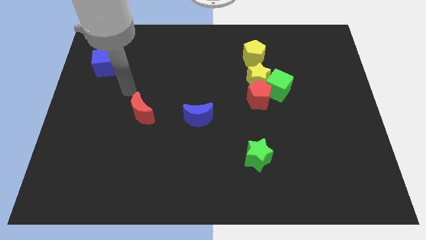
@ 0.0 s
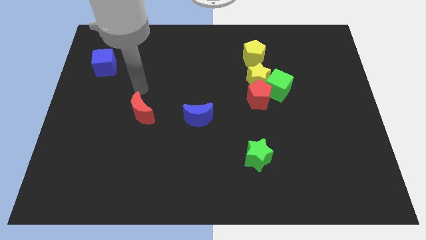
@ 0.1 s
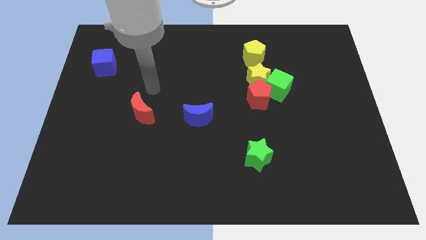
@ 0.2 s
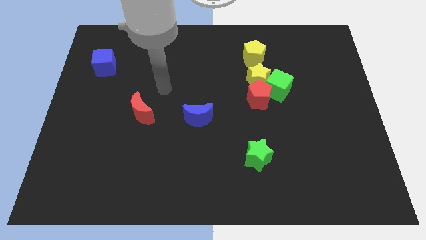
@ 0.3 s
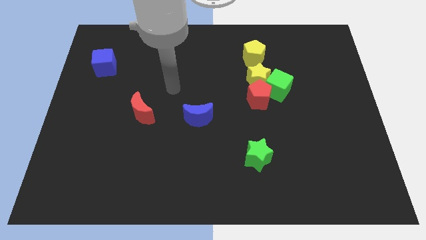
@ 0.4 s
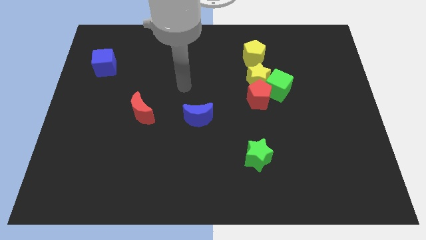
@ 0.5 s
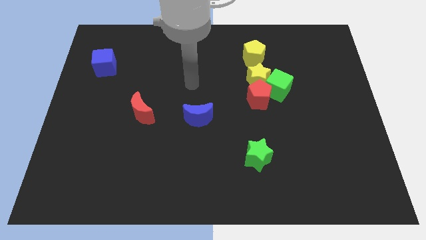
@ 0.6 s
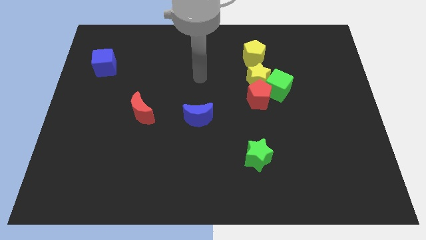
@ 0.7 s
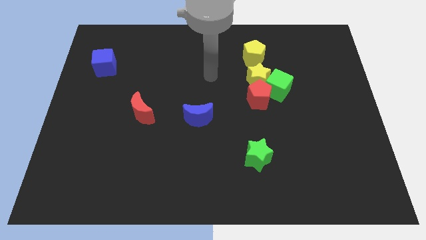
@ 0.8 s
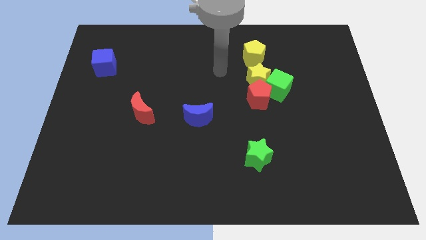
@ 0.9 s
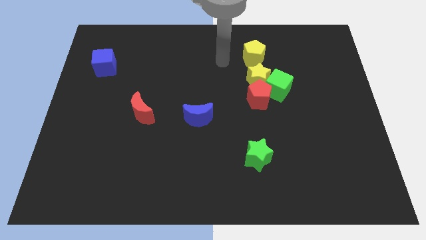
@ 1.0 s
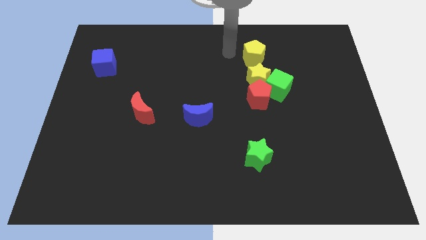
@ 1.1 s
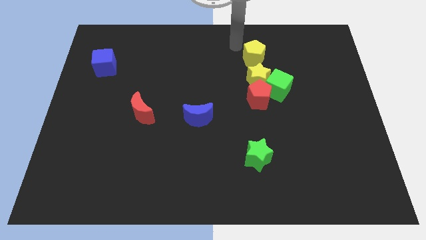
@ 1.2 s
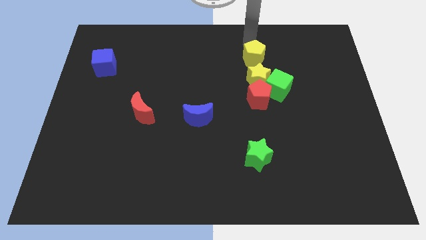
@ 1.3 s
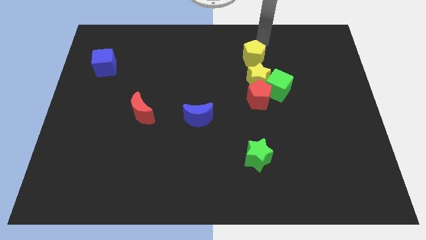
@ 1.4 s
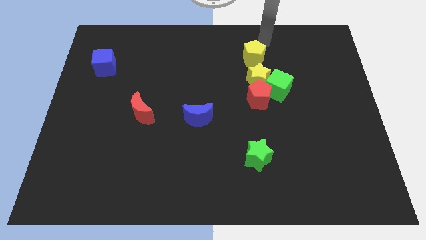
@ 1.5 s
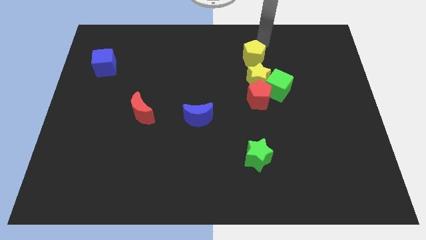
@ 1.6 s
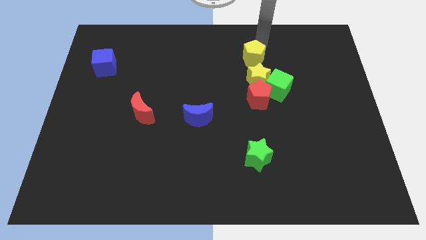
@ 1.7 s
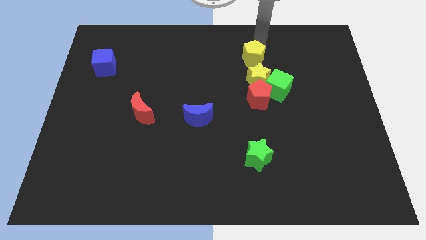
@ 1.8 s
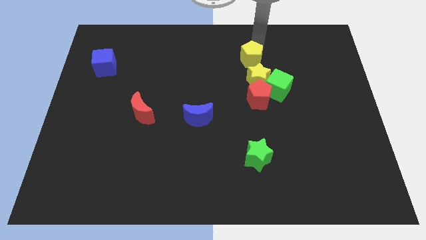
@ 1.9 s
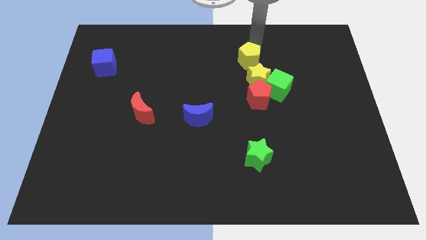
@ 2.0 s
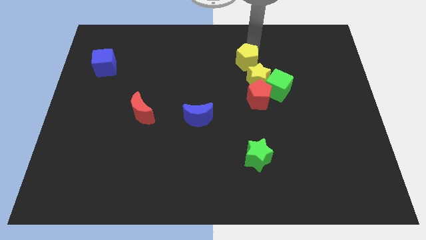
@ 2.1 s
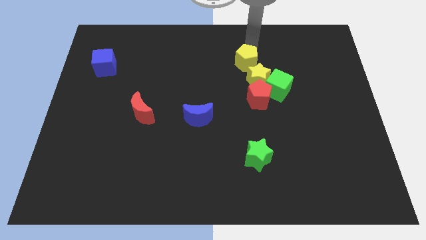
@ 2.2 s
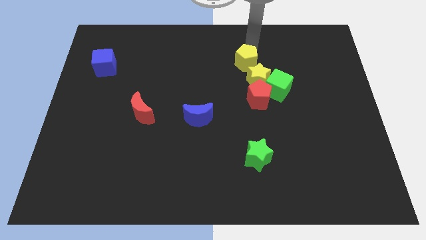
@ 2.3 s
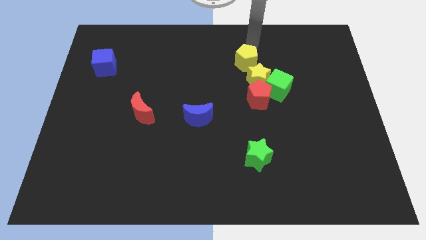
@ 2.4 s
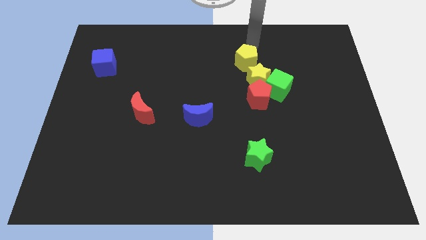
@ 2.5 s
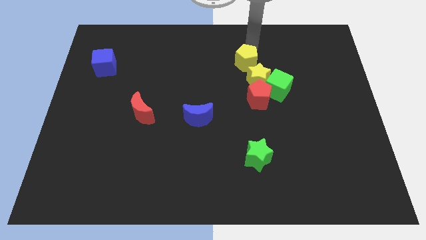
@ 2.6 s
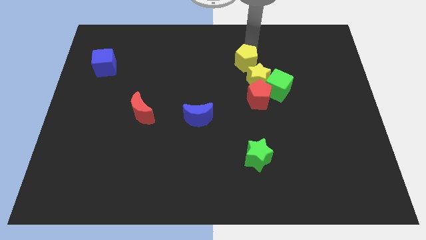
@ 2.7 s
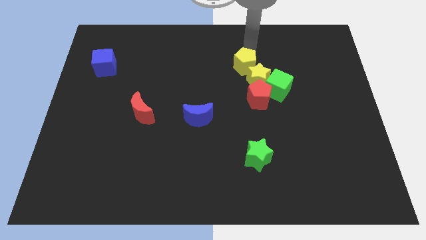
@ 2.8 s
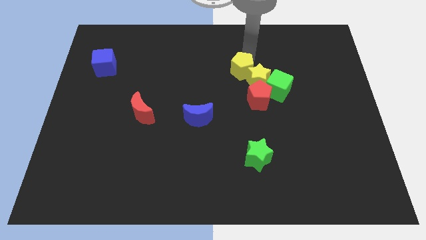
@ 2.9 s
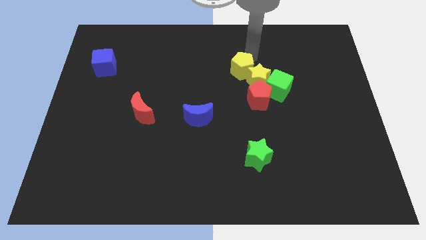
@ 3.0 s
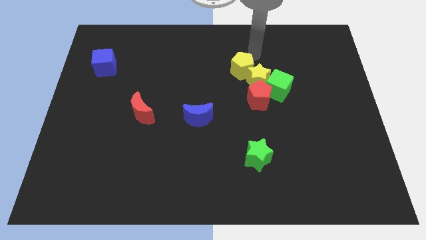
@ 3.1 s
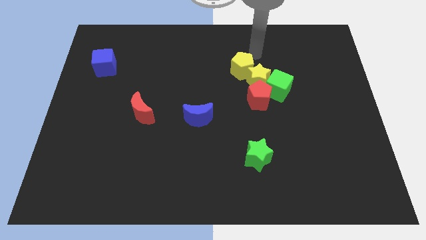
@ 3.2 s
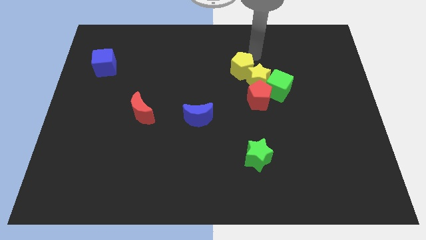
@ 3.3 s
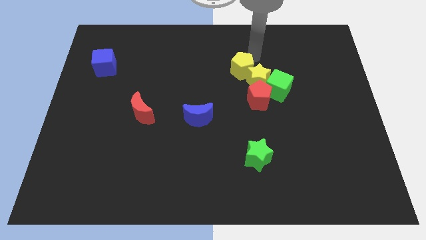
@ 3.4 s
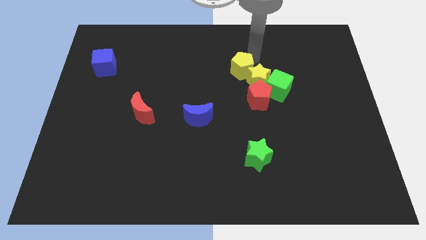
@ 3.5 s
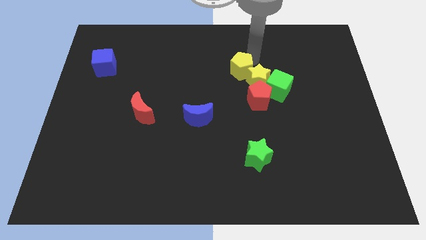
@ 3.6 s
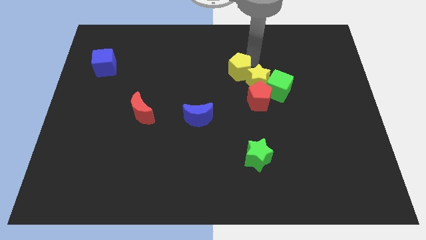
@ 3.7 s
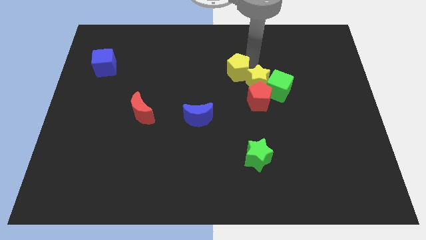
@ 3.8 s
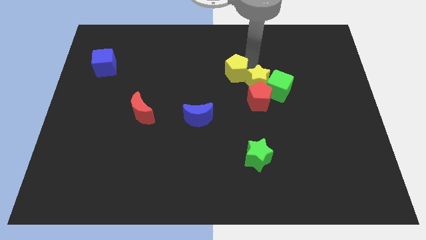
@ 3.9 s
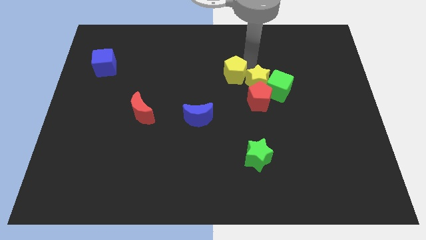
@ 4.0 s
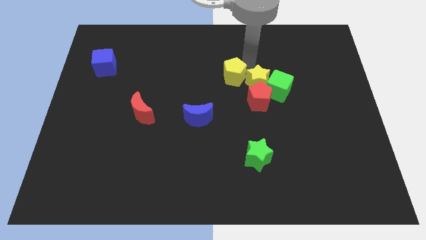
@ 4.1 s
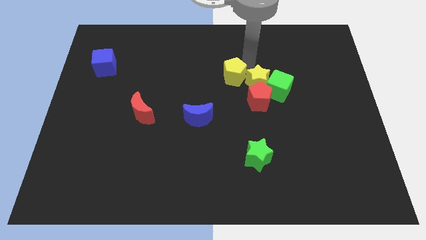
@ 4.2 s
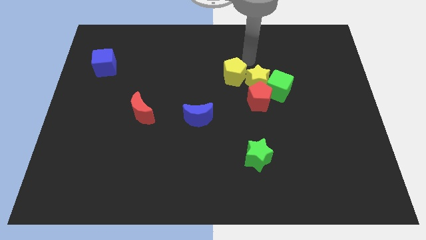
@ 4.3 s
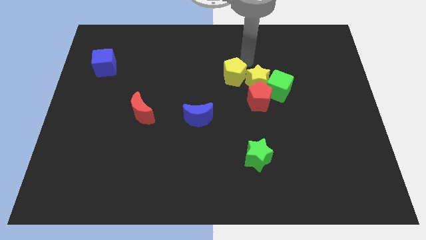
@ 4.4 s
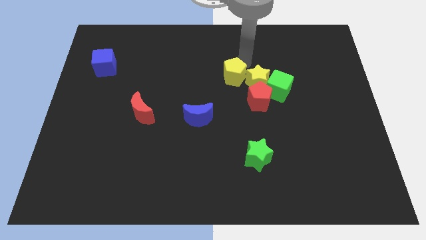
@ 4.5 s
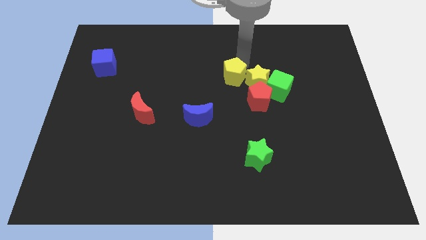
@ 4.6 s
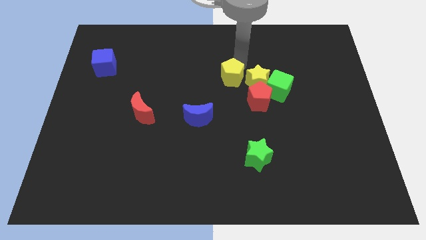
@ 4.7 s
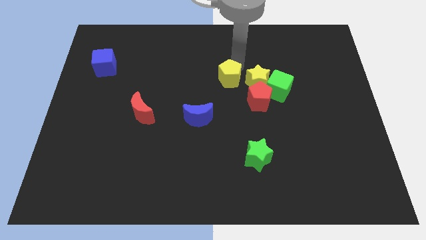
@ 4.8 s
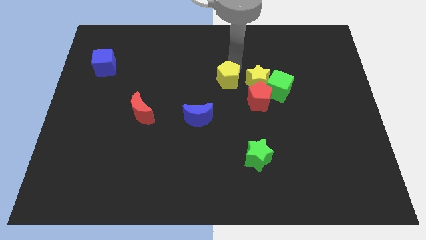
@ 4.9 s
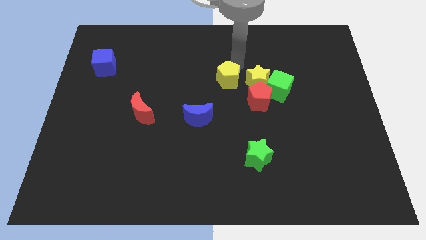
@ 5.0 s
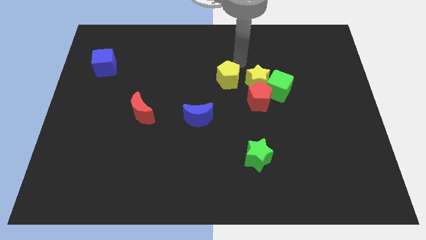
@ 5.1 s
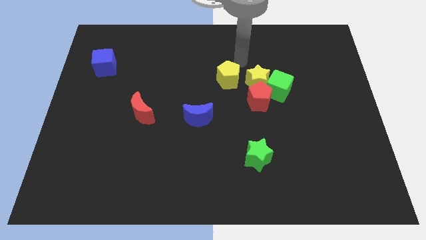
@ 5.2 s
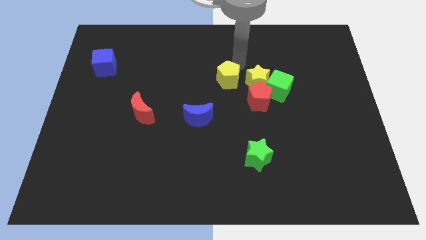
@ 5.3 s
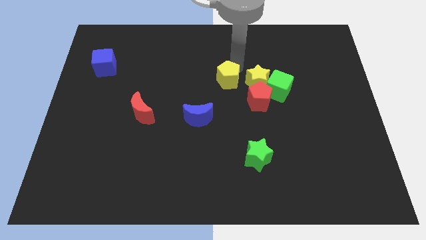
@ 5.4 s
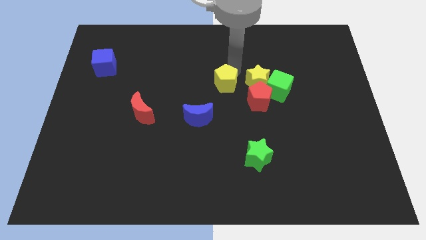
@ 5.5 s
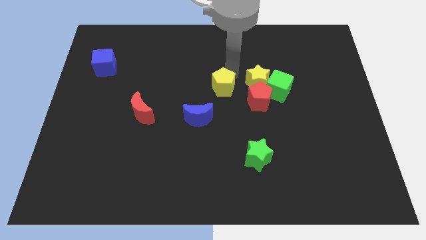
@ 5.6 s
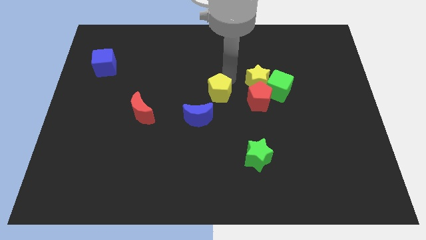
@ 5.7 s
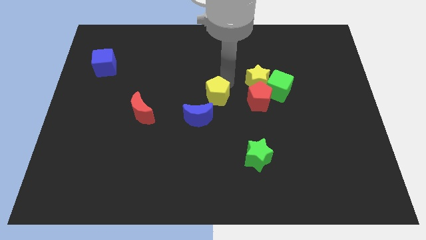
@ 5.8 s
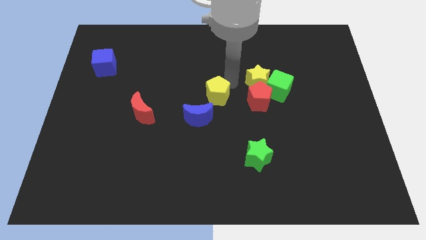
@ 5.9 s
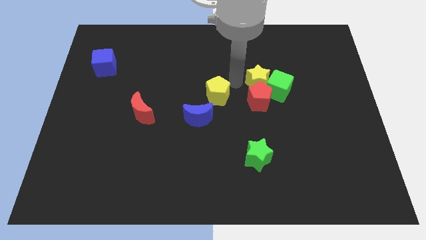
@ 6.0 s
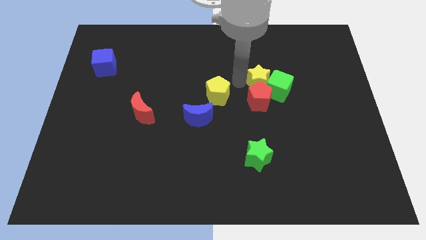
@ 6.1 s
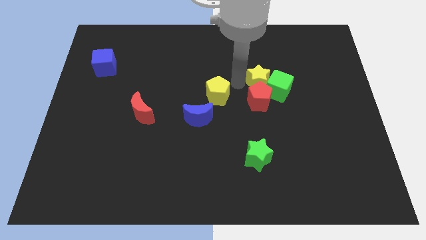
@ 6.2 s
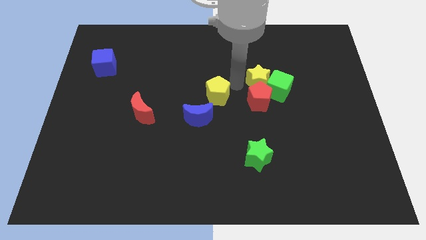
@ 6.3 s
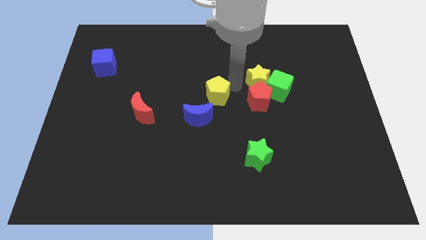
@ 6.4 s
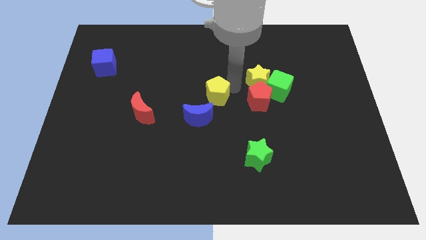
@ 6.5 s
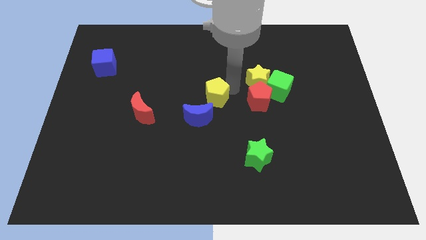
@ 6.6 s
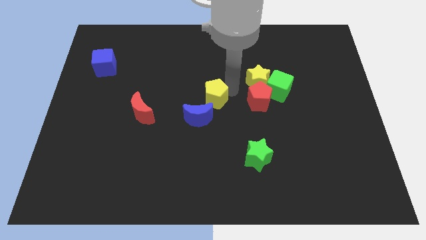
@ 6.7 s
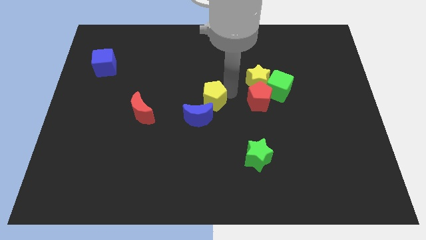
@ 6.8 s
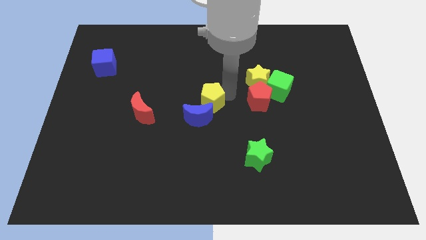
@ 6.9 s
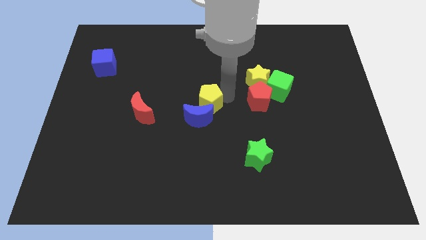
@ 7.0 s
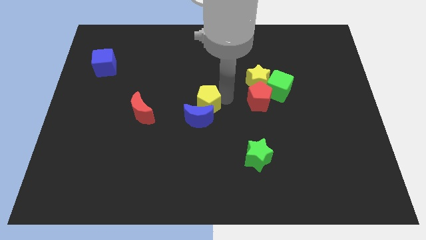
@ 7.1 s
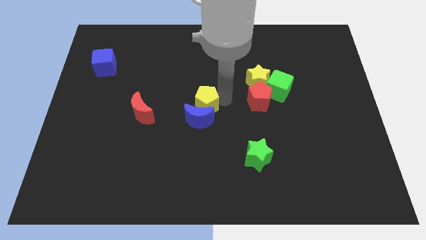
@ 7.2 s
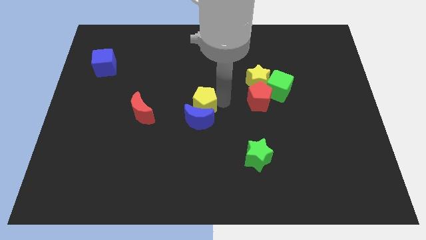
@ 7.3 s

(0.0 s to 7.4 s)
slide the yellow pentagon downwards and to the left diagonally

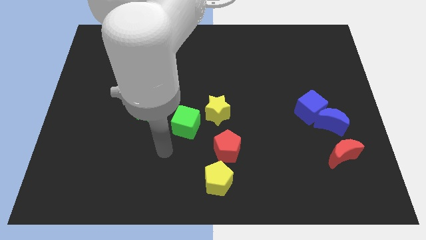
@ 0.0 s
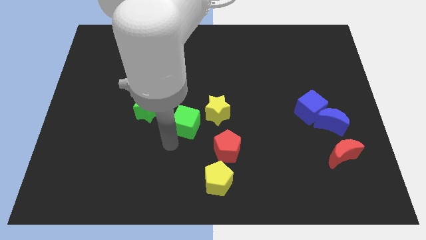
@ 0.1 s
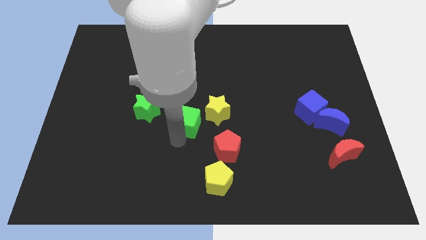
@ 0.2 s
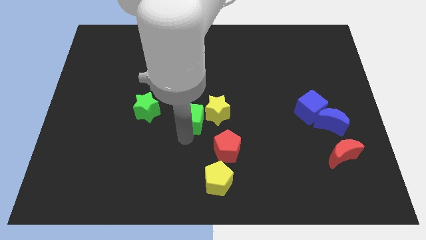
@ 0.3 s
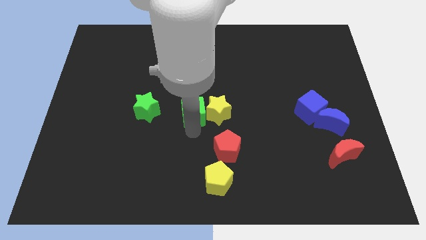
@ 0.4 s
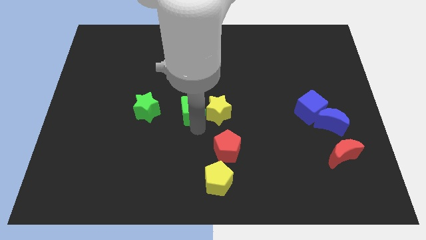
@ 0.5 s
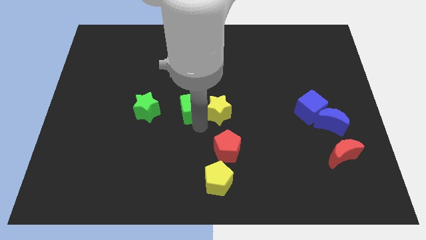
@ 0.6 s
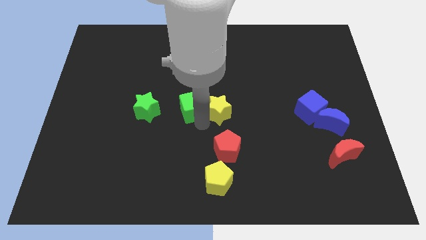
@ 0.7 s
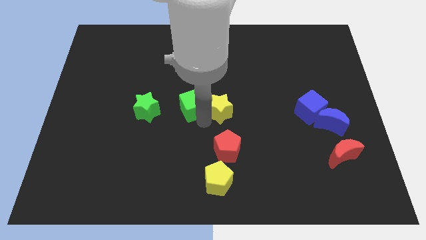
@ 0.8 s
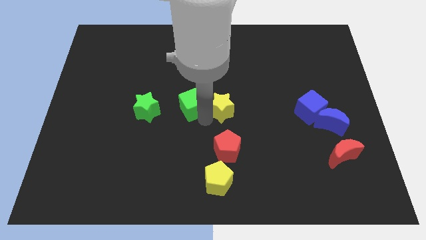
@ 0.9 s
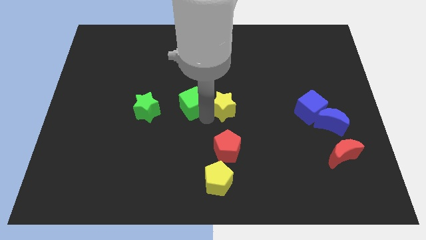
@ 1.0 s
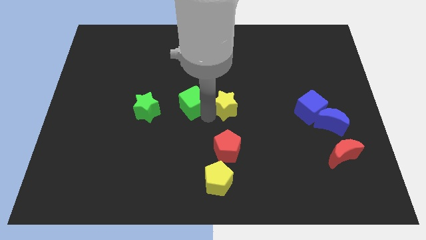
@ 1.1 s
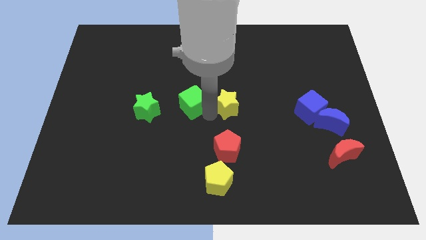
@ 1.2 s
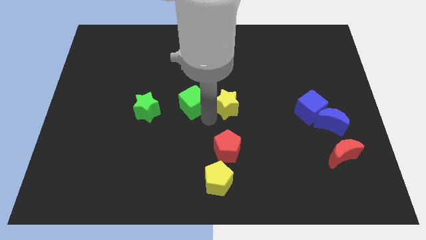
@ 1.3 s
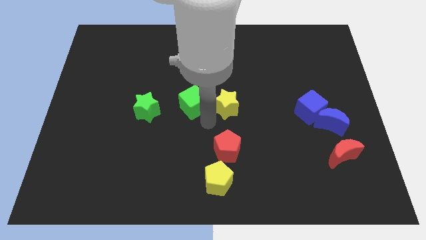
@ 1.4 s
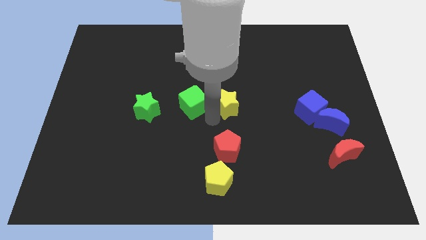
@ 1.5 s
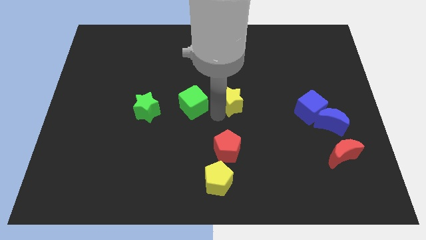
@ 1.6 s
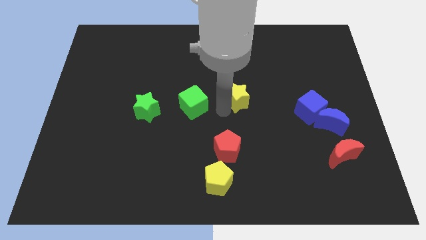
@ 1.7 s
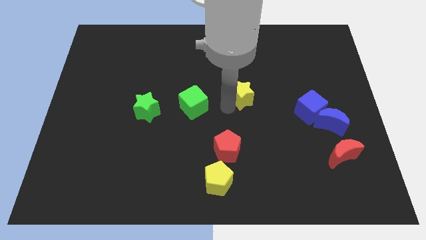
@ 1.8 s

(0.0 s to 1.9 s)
move the yellow star up and then right slightly
